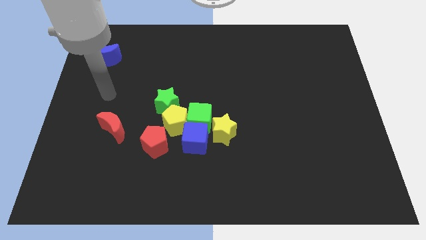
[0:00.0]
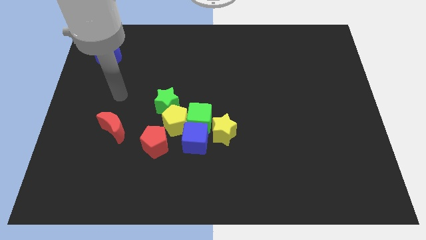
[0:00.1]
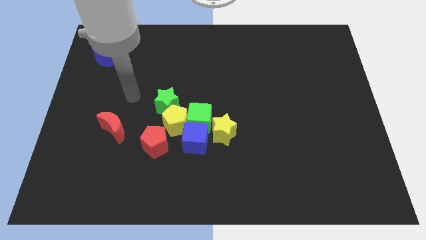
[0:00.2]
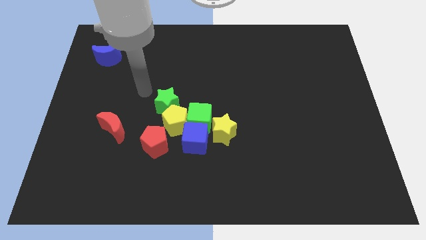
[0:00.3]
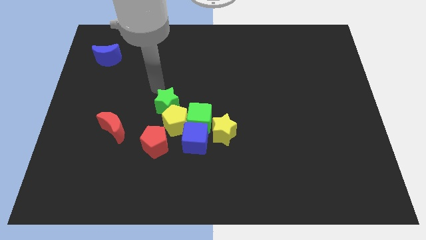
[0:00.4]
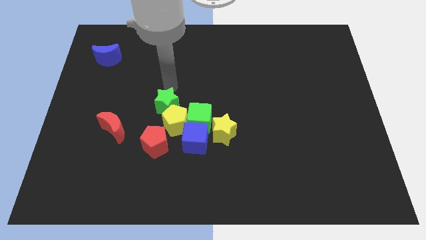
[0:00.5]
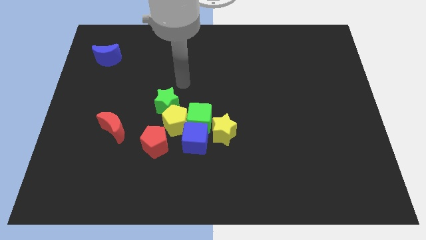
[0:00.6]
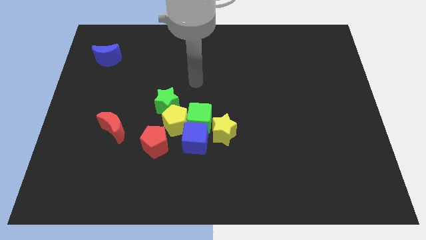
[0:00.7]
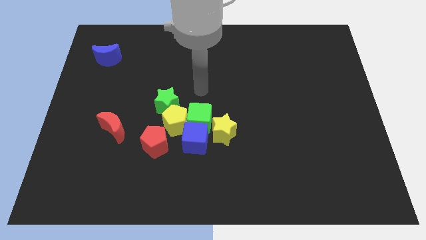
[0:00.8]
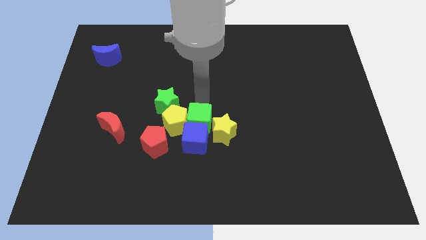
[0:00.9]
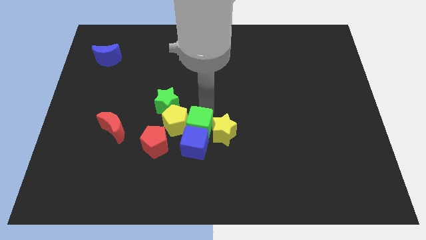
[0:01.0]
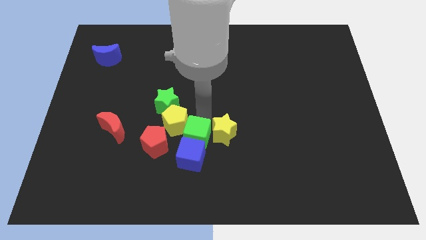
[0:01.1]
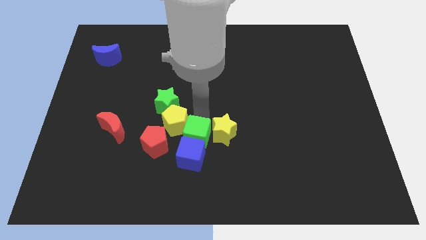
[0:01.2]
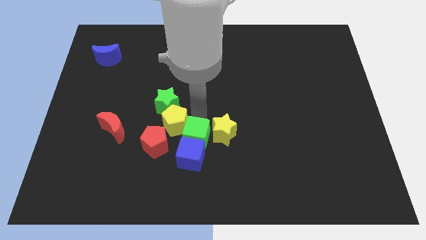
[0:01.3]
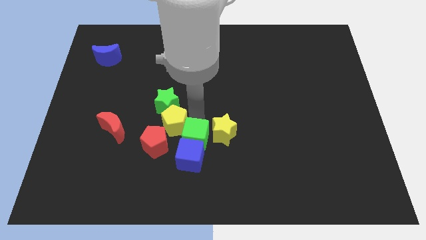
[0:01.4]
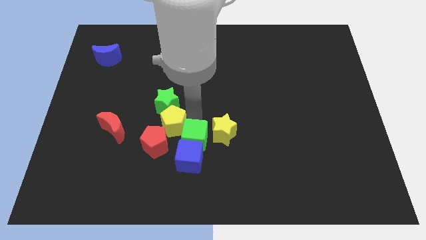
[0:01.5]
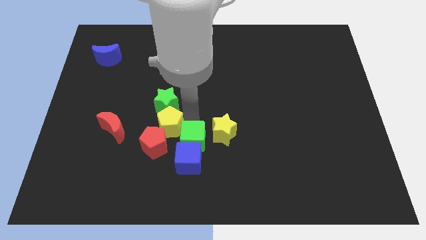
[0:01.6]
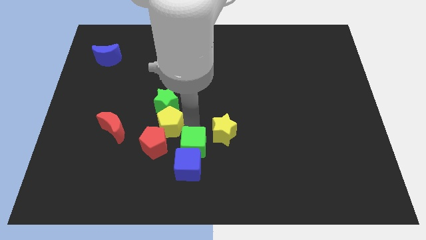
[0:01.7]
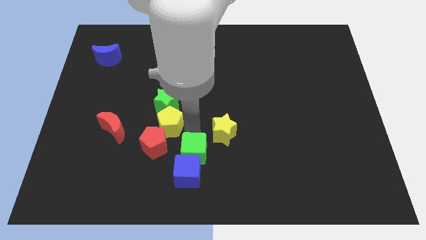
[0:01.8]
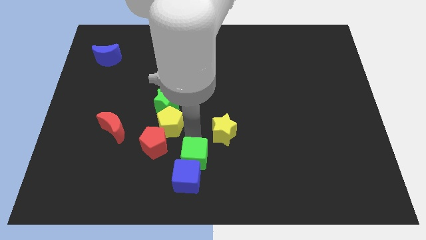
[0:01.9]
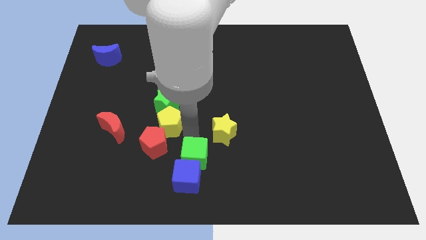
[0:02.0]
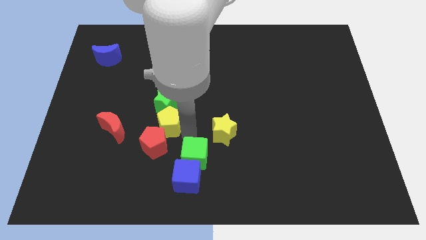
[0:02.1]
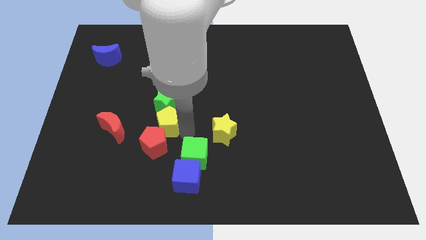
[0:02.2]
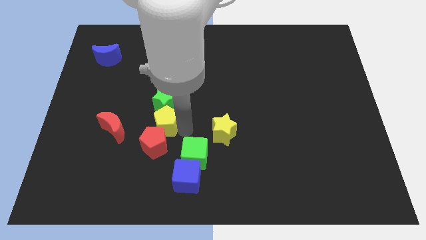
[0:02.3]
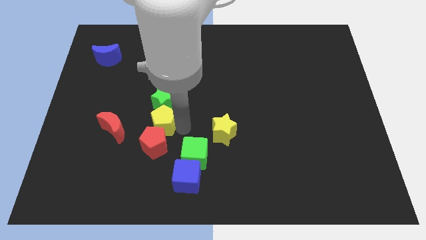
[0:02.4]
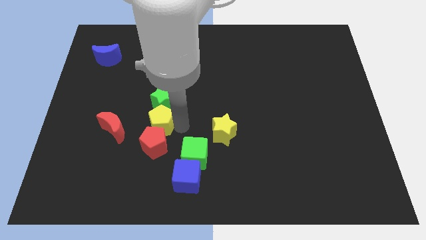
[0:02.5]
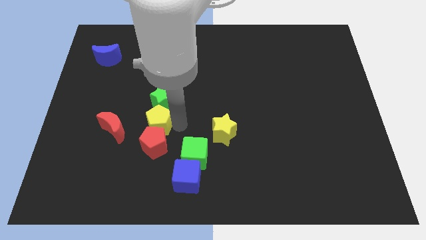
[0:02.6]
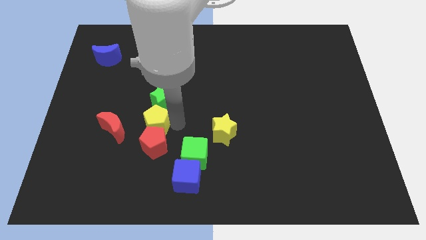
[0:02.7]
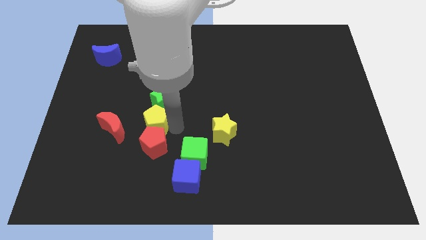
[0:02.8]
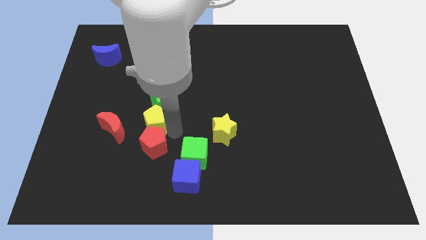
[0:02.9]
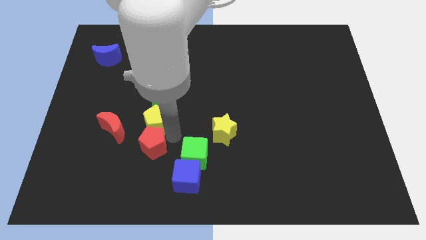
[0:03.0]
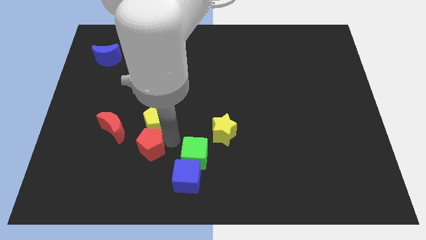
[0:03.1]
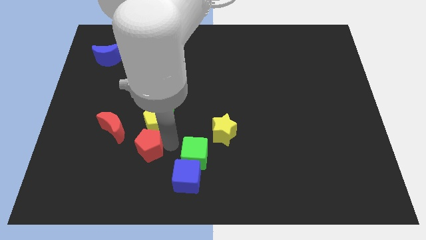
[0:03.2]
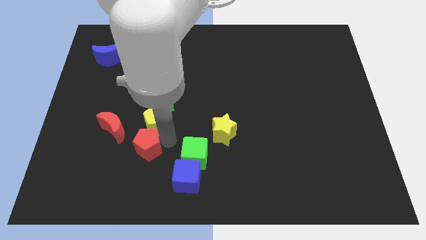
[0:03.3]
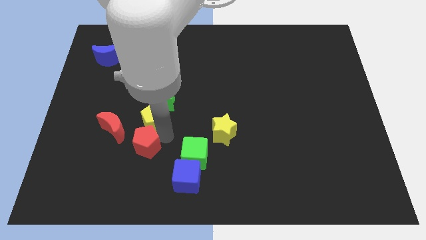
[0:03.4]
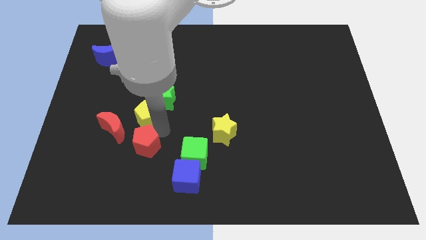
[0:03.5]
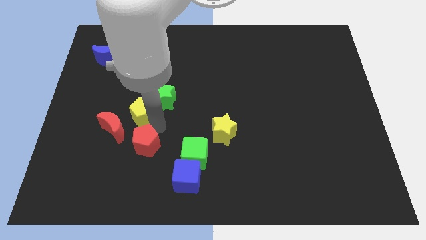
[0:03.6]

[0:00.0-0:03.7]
pull the yellow pentagon apart from the clump

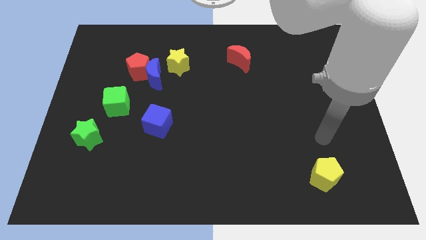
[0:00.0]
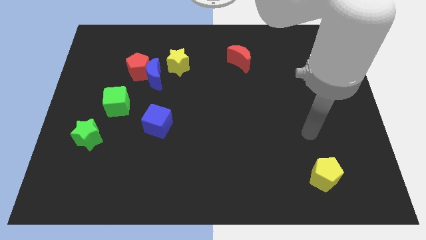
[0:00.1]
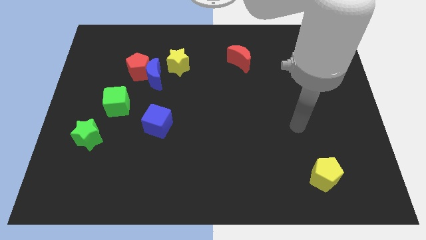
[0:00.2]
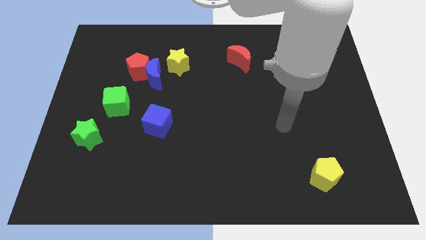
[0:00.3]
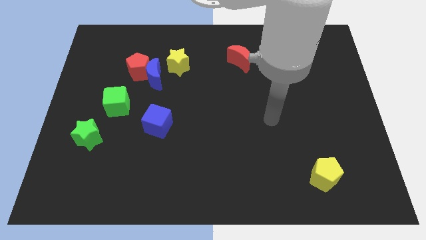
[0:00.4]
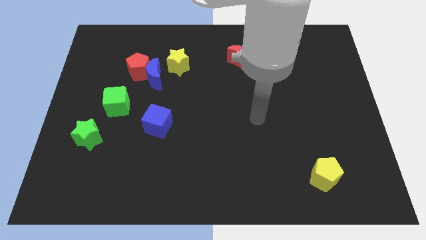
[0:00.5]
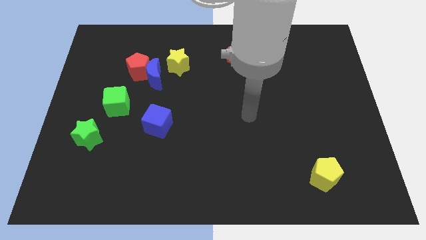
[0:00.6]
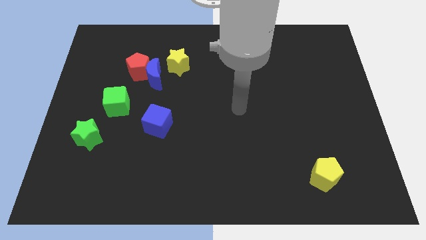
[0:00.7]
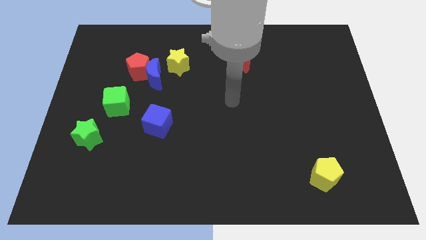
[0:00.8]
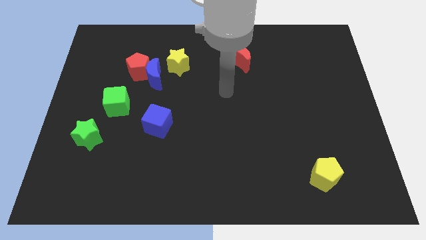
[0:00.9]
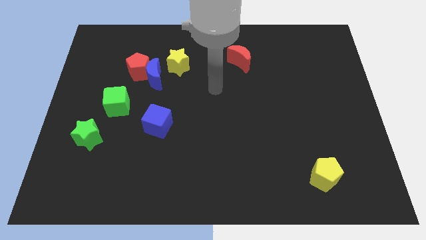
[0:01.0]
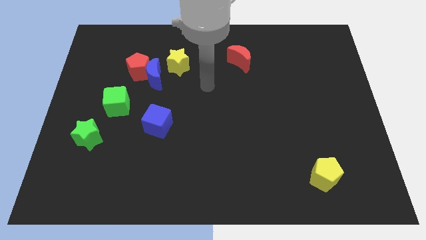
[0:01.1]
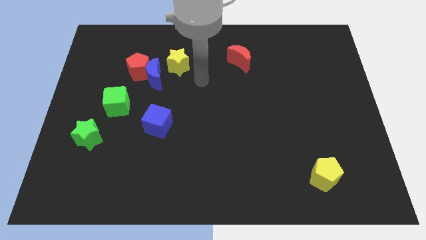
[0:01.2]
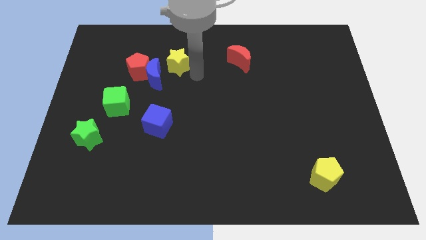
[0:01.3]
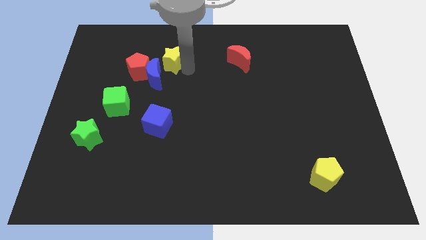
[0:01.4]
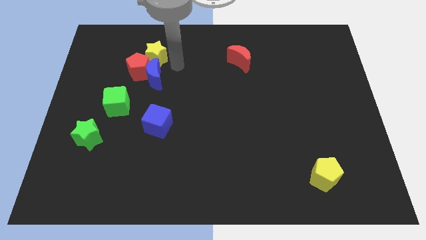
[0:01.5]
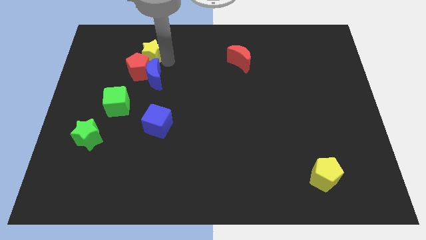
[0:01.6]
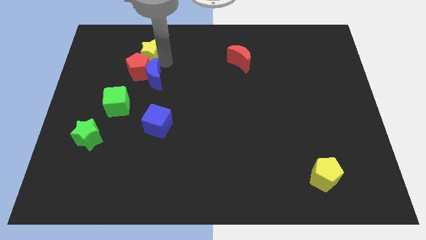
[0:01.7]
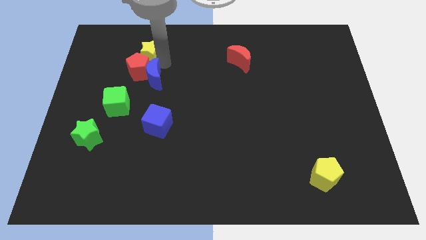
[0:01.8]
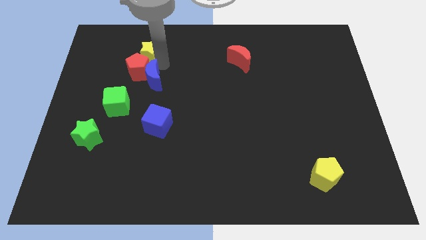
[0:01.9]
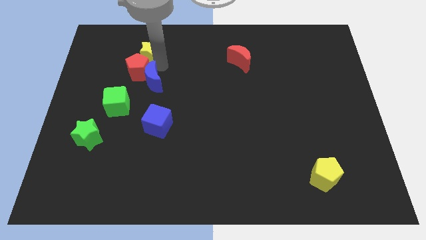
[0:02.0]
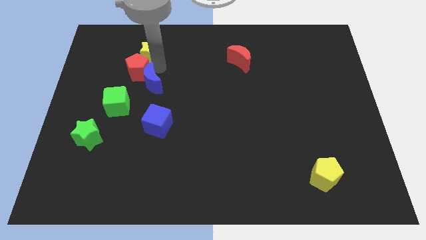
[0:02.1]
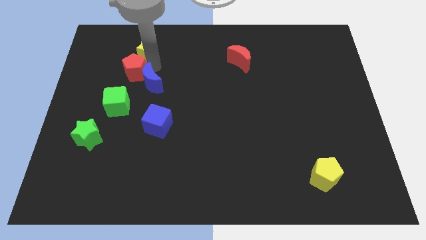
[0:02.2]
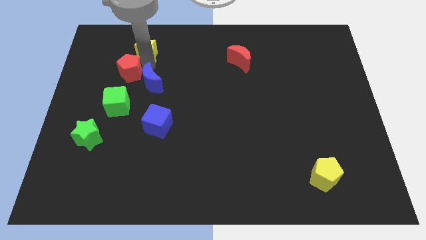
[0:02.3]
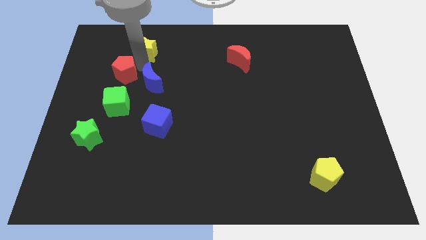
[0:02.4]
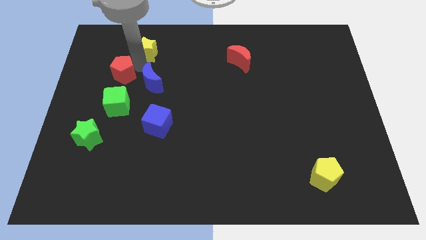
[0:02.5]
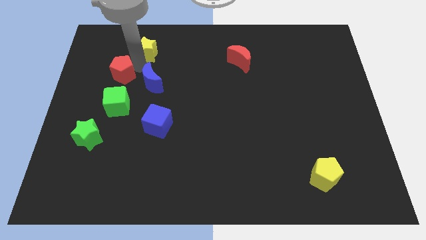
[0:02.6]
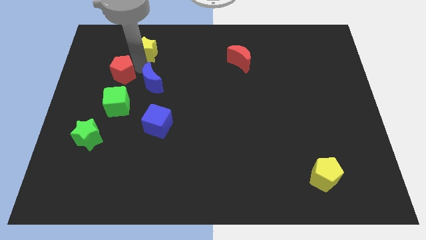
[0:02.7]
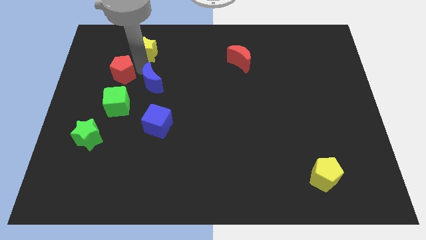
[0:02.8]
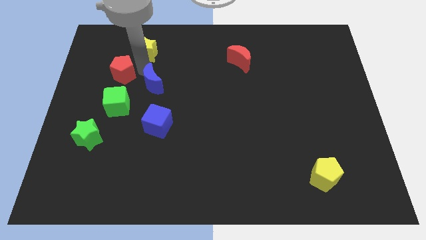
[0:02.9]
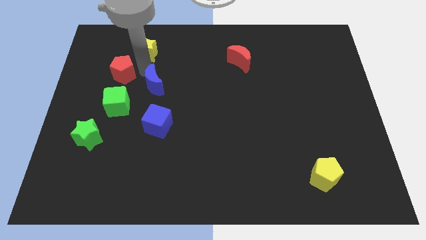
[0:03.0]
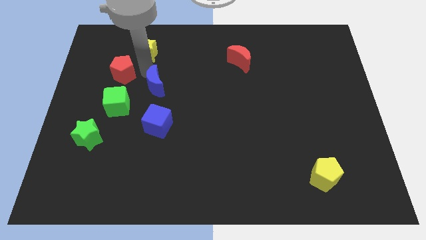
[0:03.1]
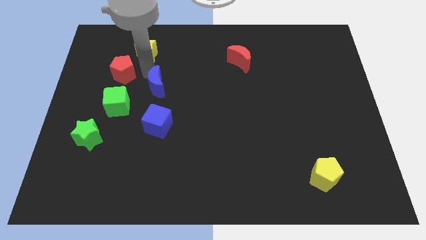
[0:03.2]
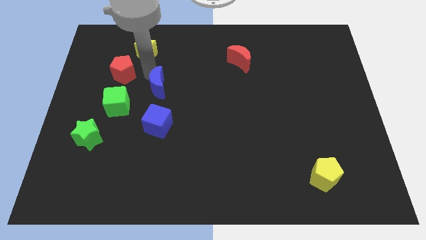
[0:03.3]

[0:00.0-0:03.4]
pull the blue moon apart from the red pentagon and yellow star

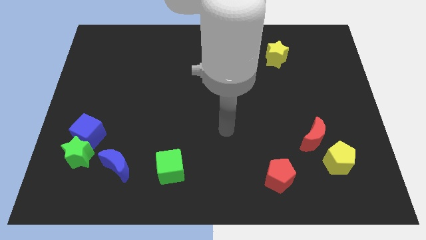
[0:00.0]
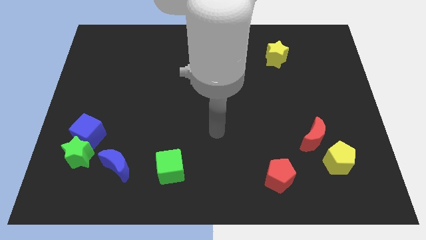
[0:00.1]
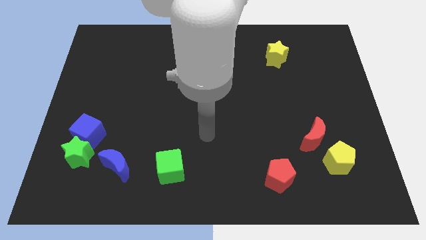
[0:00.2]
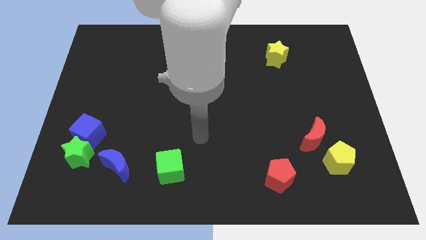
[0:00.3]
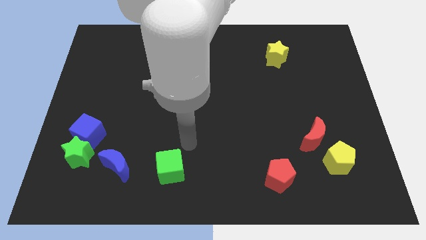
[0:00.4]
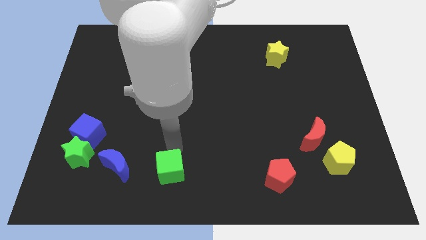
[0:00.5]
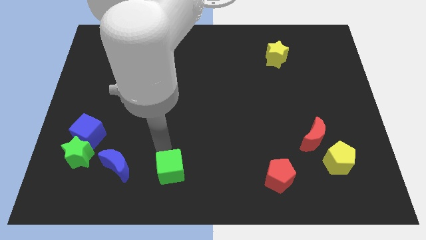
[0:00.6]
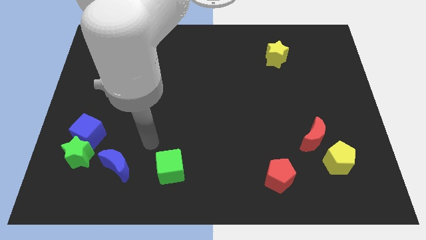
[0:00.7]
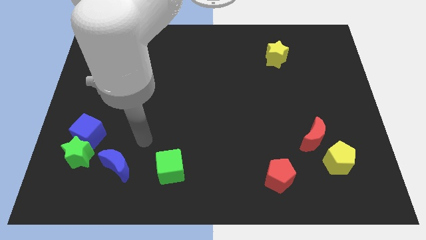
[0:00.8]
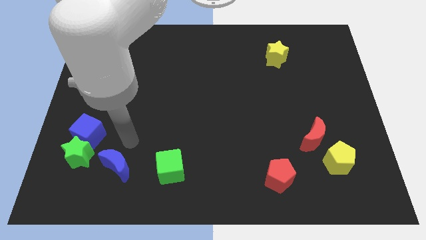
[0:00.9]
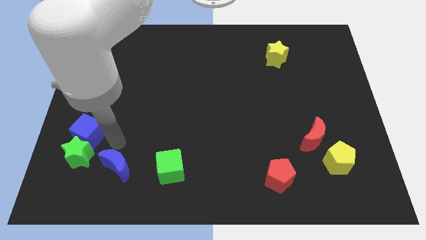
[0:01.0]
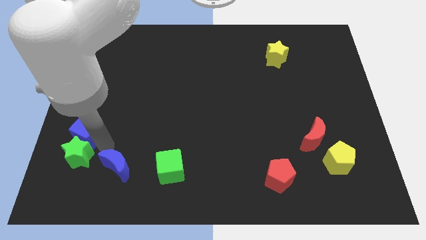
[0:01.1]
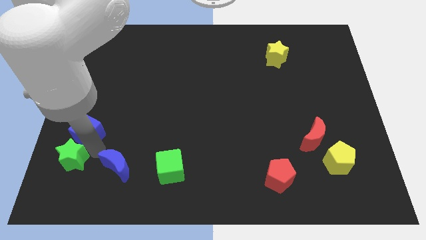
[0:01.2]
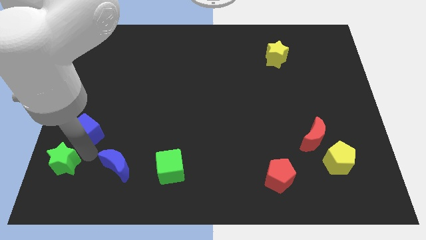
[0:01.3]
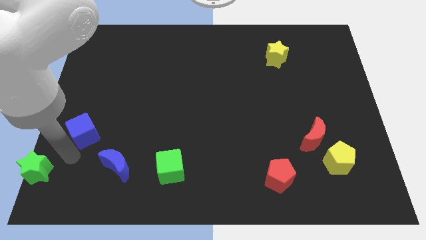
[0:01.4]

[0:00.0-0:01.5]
move the blue cube away from the green star

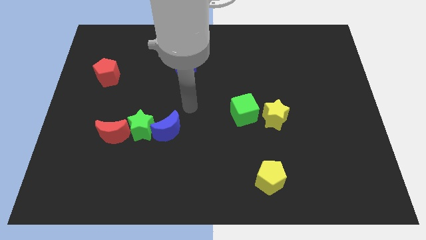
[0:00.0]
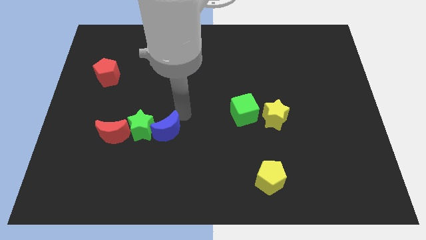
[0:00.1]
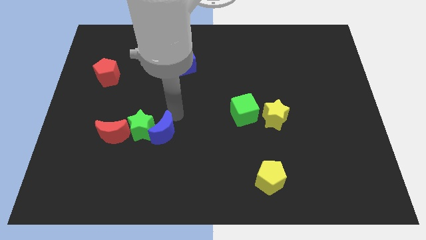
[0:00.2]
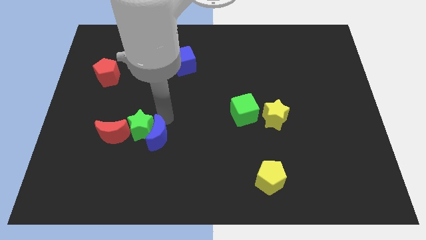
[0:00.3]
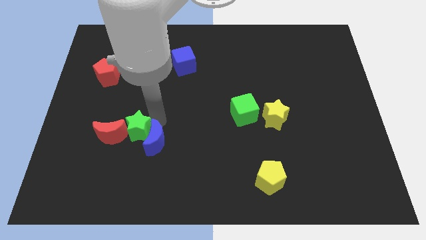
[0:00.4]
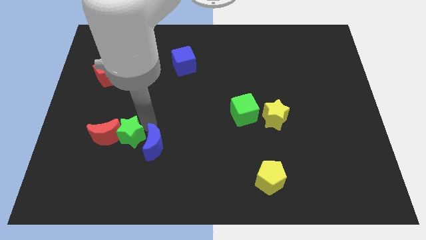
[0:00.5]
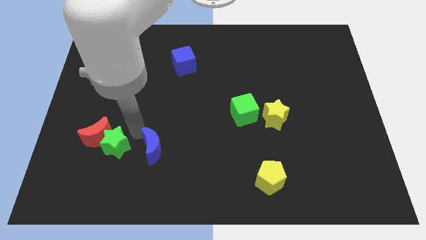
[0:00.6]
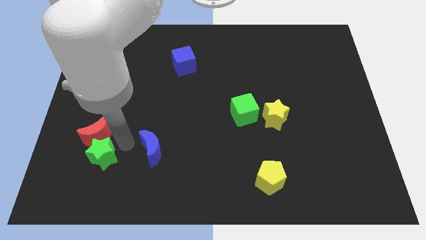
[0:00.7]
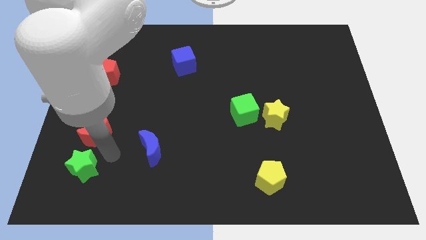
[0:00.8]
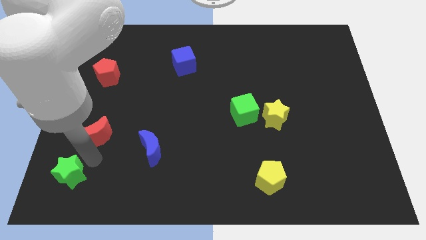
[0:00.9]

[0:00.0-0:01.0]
move the red moon away from the green star

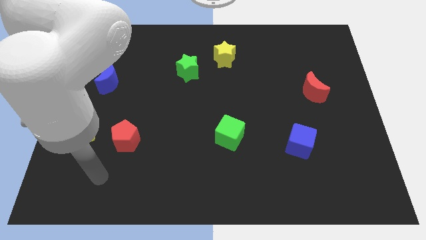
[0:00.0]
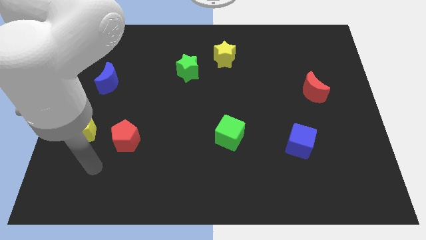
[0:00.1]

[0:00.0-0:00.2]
separate the red pentagon from the yellow pentagon
